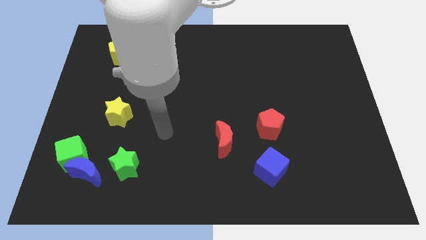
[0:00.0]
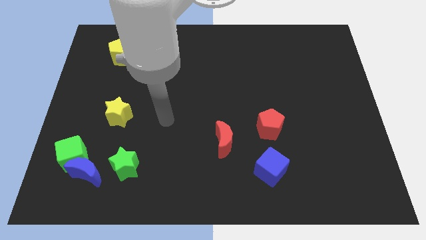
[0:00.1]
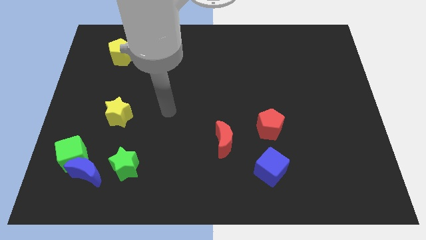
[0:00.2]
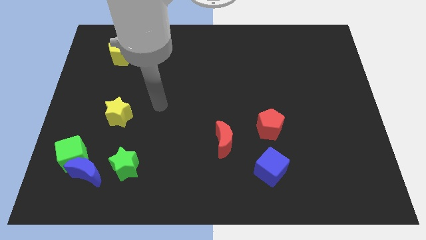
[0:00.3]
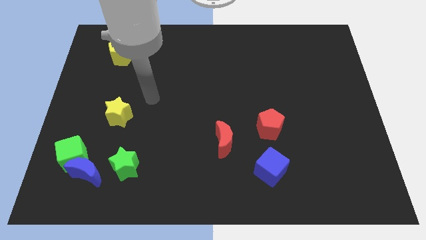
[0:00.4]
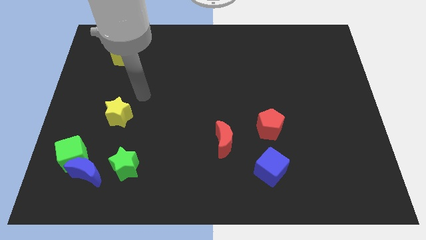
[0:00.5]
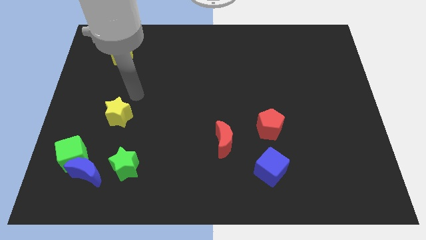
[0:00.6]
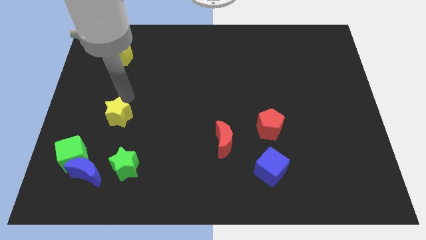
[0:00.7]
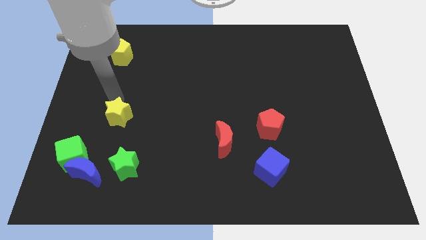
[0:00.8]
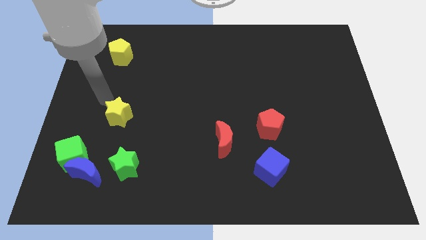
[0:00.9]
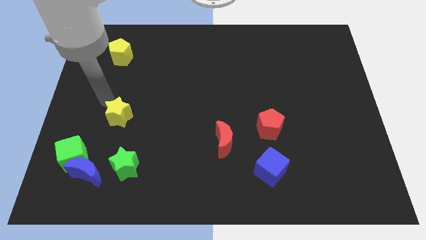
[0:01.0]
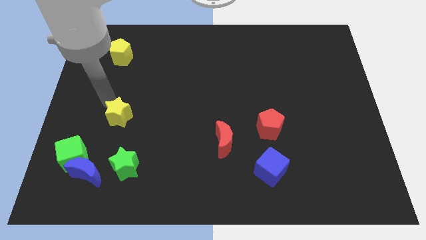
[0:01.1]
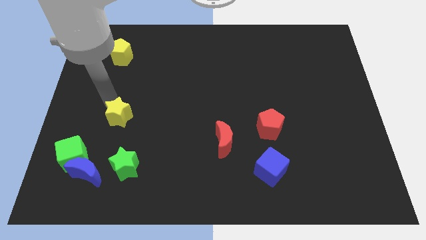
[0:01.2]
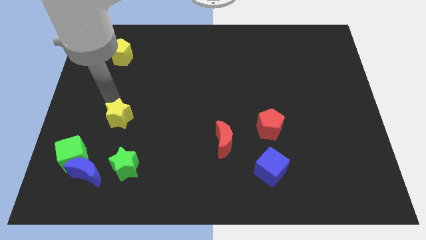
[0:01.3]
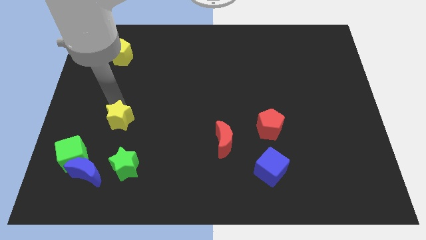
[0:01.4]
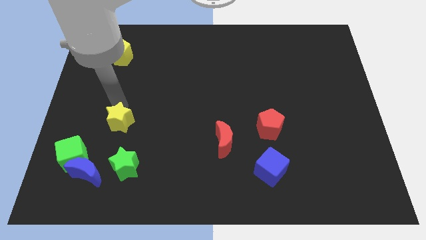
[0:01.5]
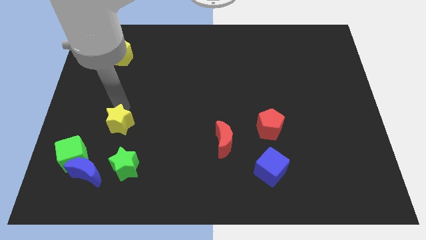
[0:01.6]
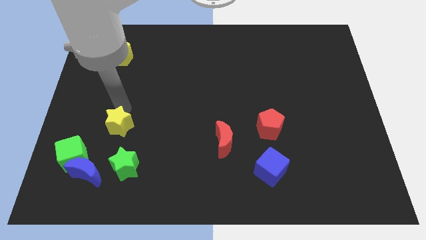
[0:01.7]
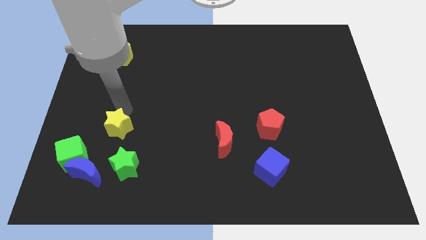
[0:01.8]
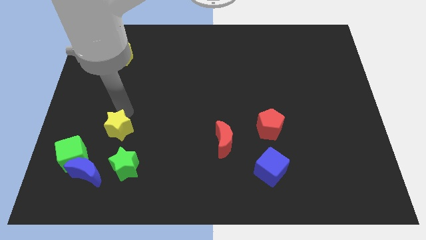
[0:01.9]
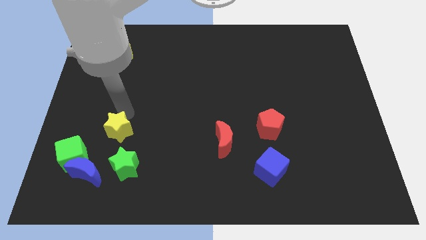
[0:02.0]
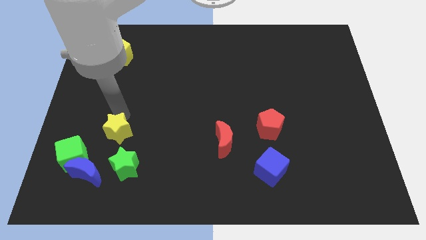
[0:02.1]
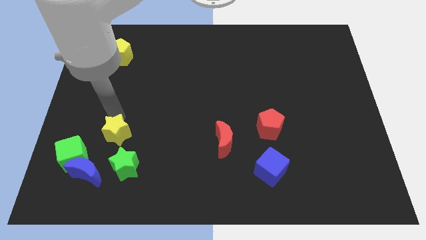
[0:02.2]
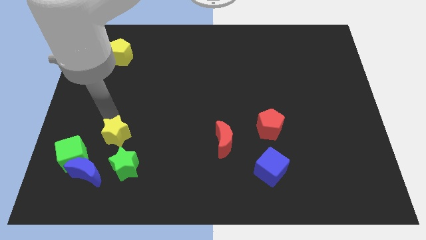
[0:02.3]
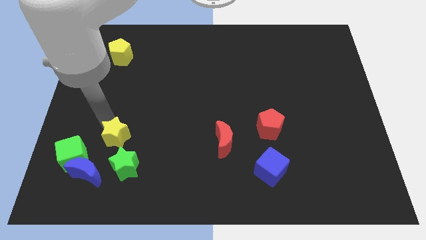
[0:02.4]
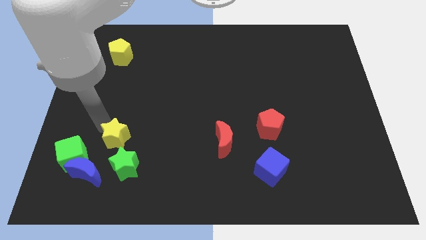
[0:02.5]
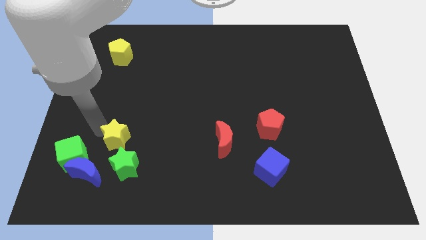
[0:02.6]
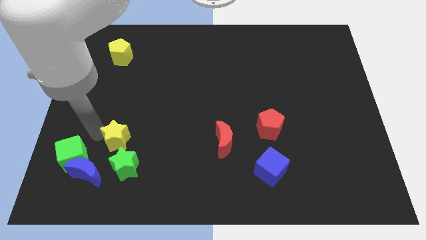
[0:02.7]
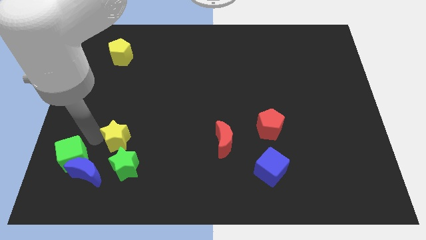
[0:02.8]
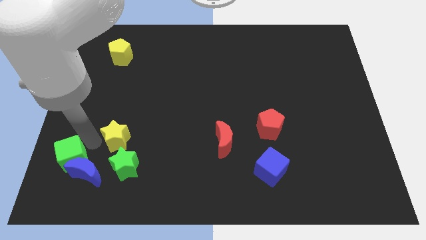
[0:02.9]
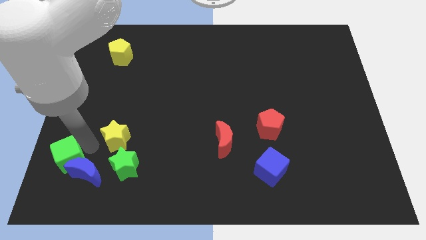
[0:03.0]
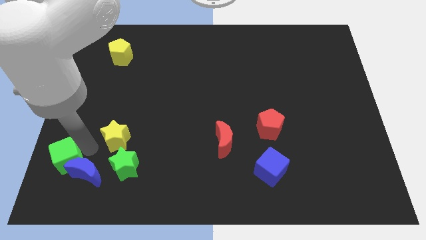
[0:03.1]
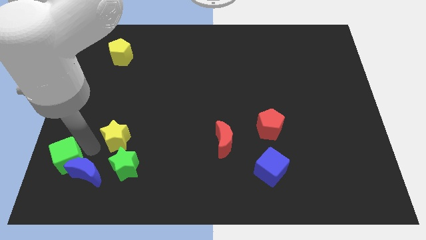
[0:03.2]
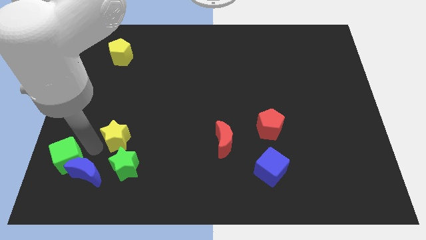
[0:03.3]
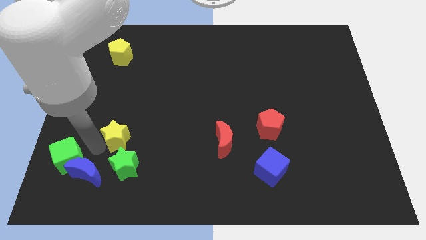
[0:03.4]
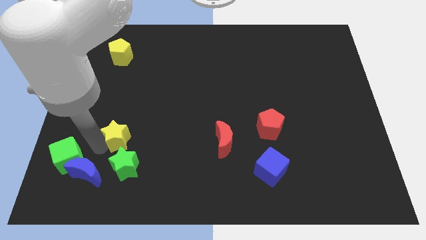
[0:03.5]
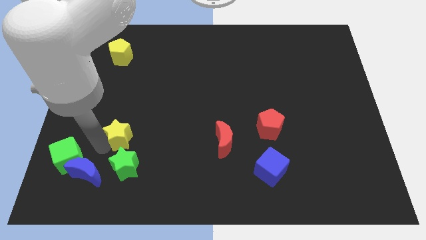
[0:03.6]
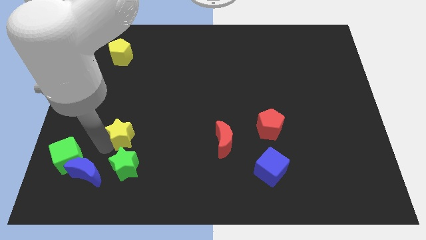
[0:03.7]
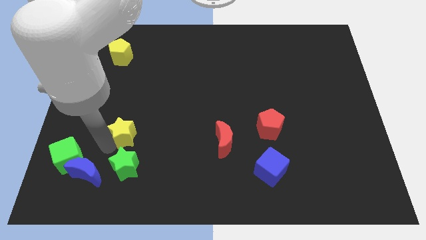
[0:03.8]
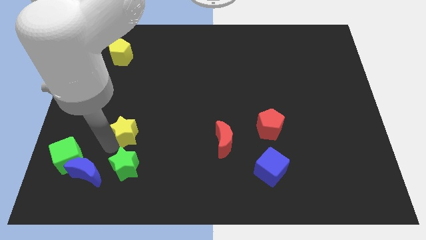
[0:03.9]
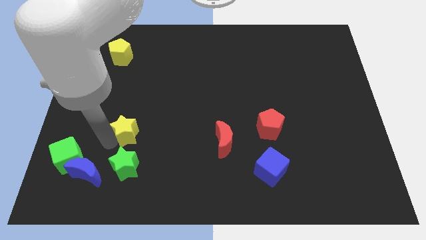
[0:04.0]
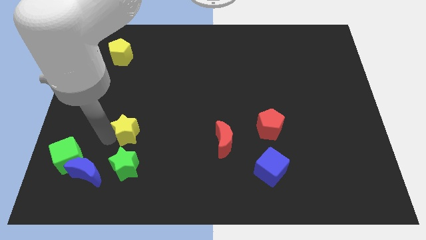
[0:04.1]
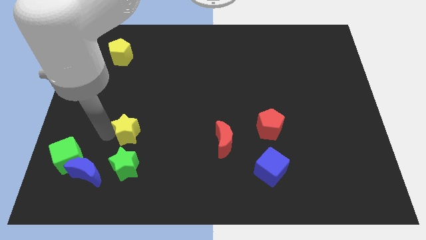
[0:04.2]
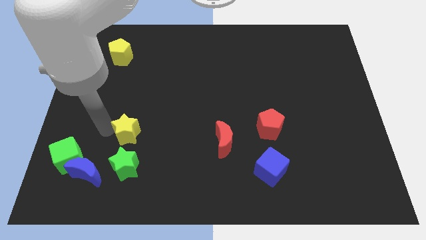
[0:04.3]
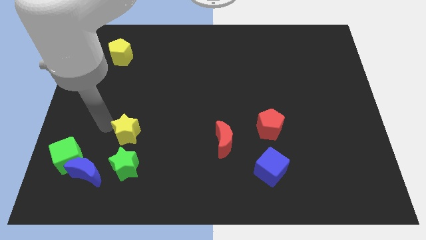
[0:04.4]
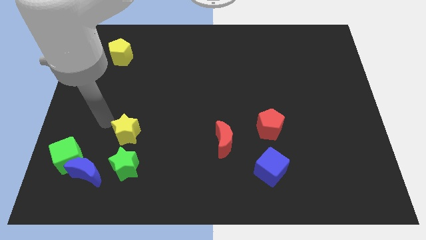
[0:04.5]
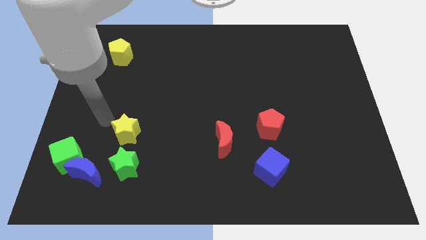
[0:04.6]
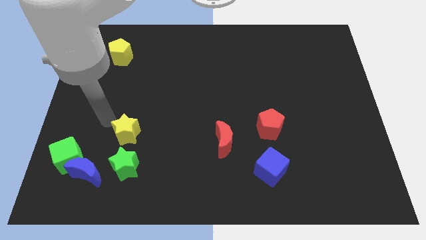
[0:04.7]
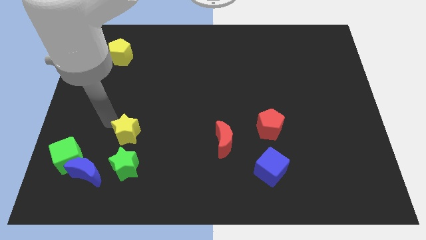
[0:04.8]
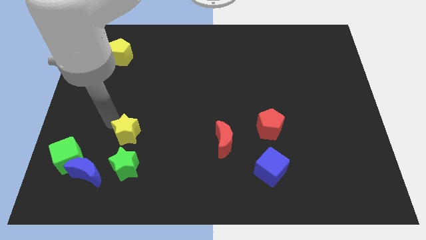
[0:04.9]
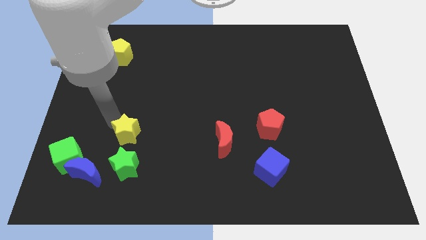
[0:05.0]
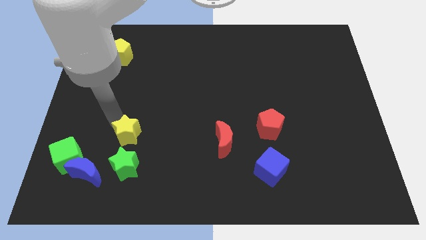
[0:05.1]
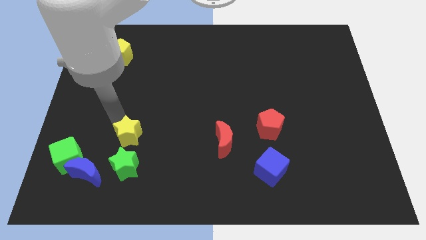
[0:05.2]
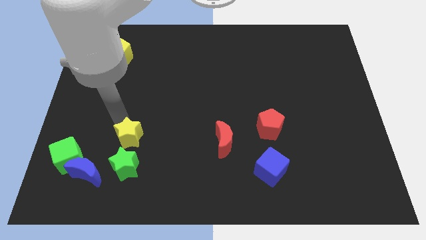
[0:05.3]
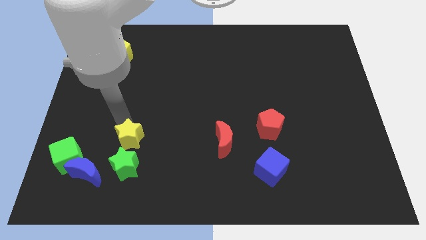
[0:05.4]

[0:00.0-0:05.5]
slide the yellow star a little downwards and then right

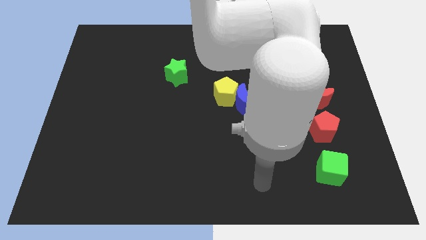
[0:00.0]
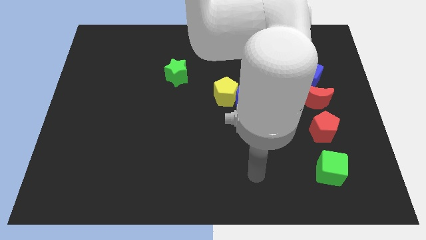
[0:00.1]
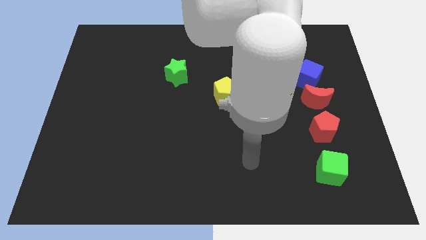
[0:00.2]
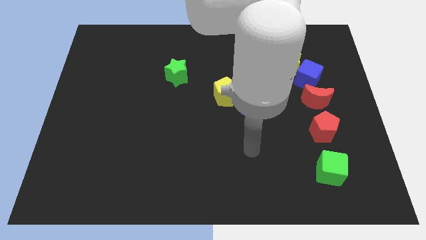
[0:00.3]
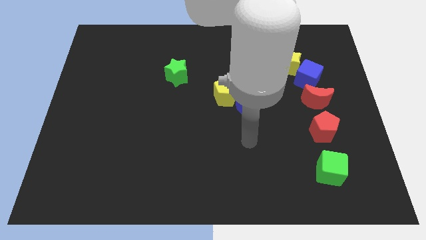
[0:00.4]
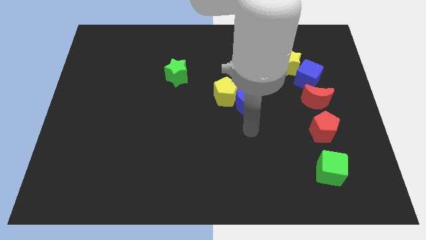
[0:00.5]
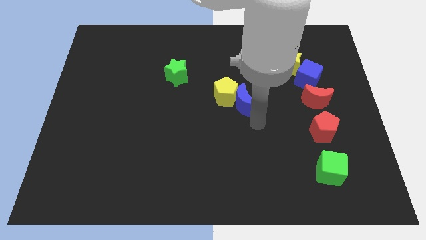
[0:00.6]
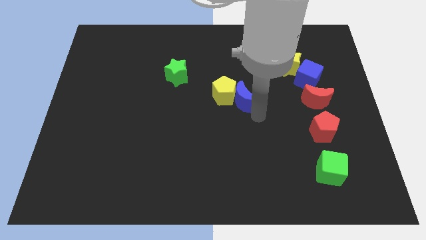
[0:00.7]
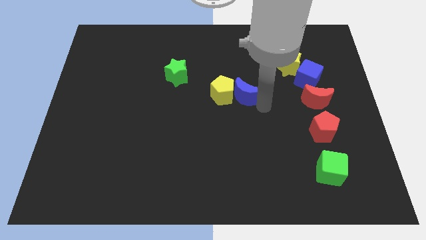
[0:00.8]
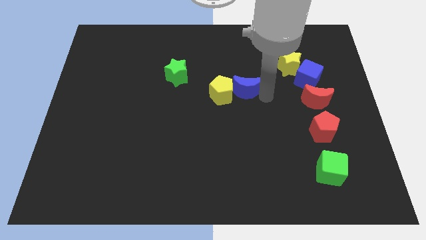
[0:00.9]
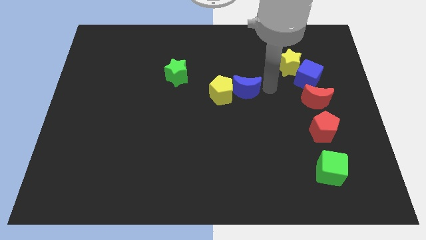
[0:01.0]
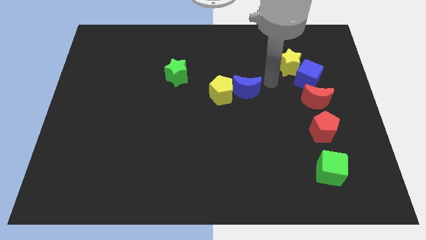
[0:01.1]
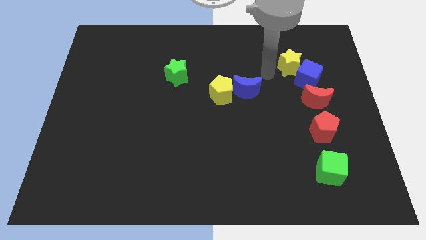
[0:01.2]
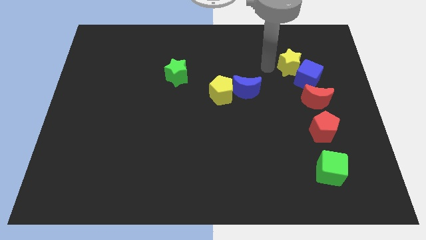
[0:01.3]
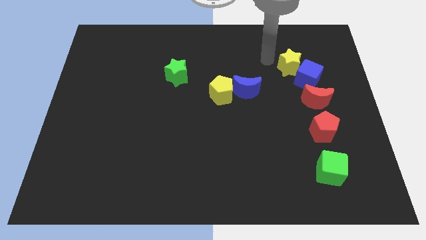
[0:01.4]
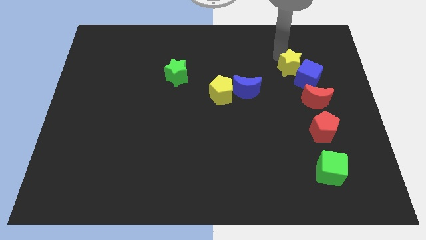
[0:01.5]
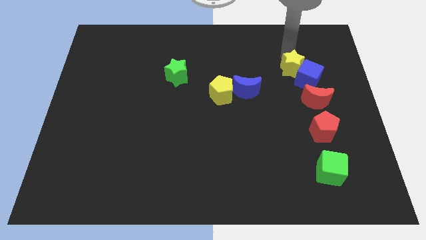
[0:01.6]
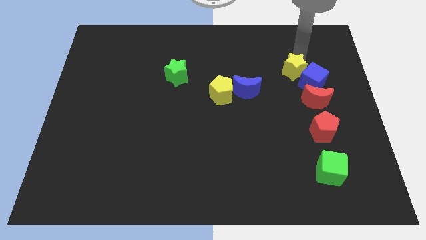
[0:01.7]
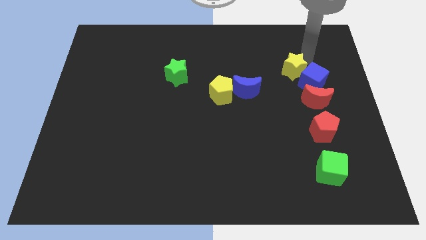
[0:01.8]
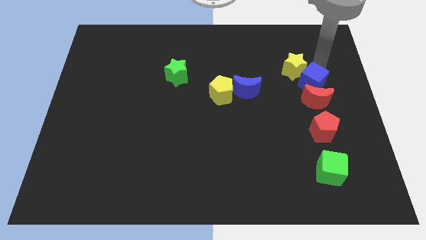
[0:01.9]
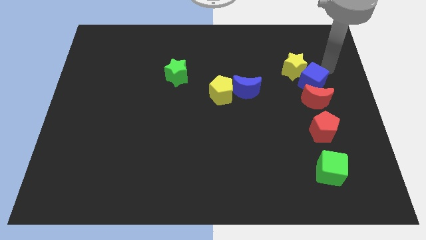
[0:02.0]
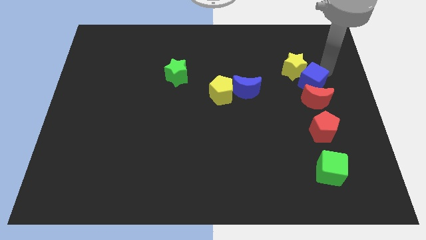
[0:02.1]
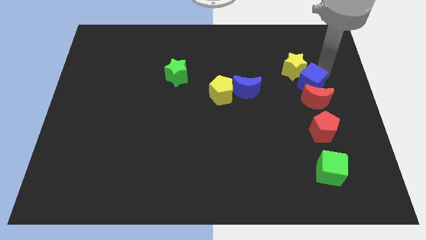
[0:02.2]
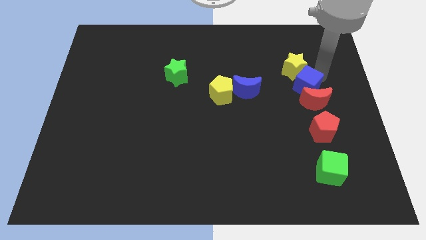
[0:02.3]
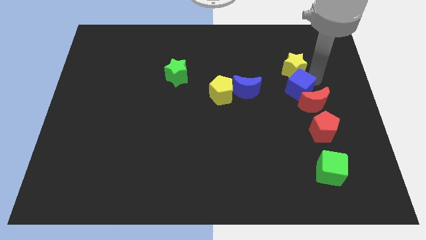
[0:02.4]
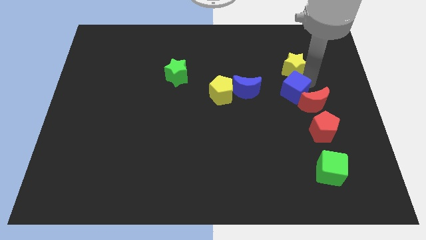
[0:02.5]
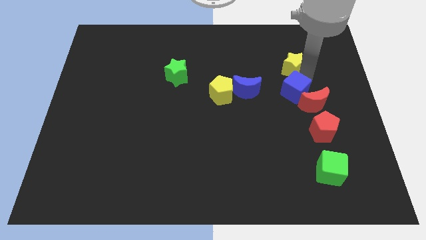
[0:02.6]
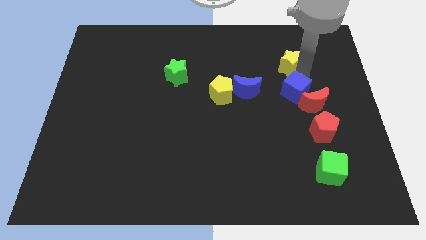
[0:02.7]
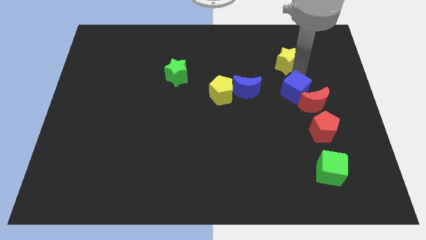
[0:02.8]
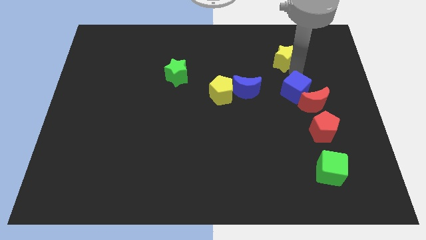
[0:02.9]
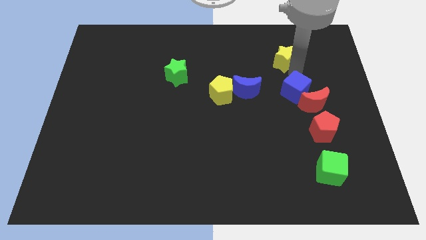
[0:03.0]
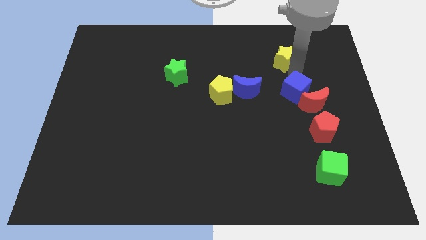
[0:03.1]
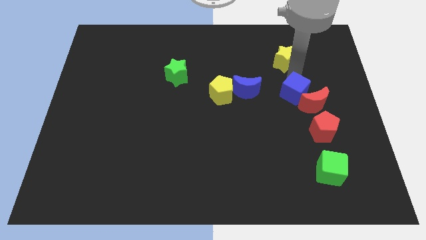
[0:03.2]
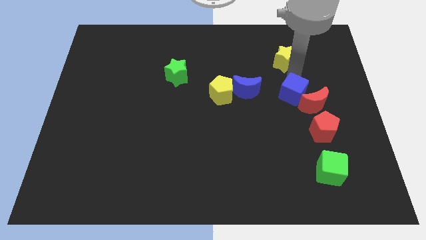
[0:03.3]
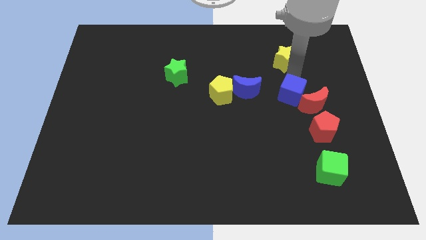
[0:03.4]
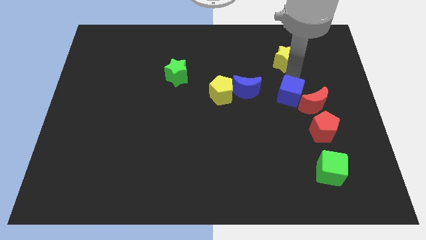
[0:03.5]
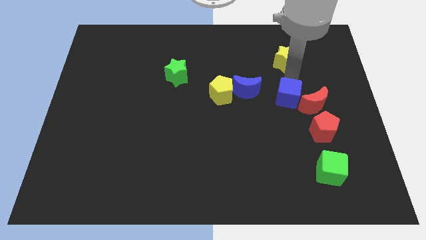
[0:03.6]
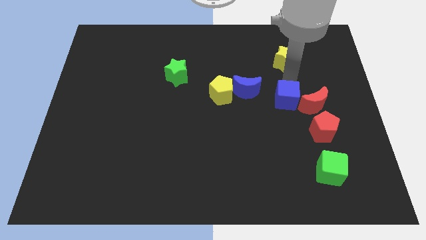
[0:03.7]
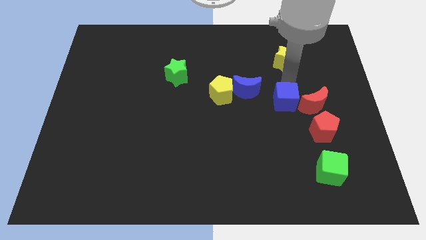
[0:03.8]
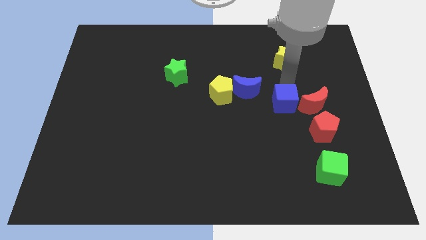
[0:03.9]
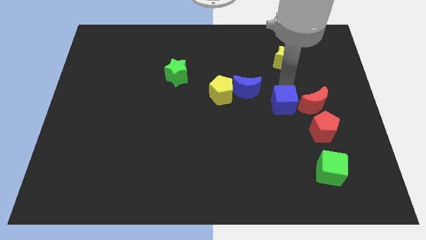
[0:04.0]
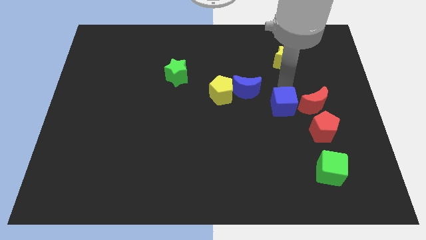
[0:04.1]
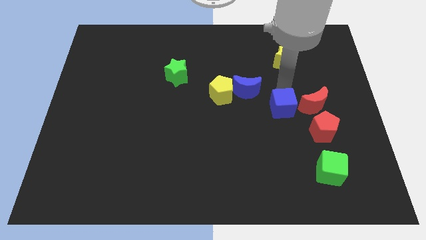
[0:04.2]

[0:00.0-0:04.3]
move the blue cube down a bit
